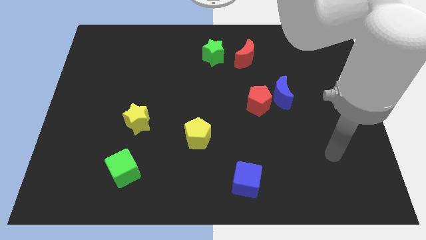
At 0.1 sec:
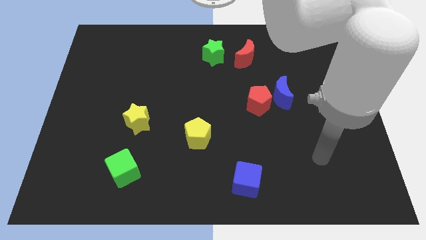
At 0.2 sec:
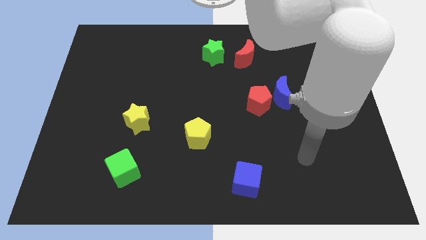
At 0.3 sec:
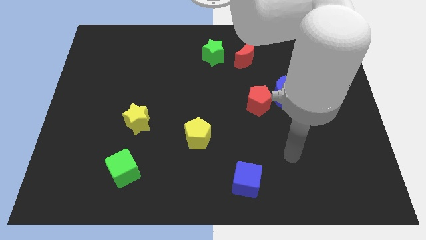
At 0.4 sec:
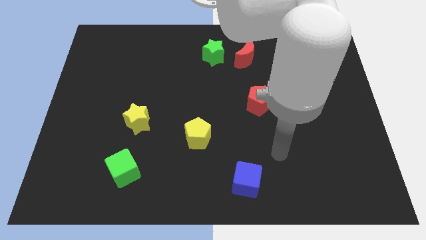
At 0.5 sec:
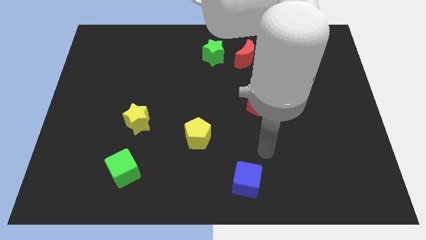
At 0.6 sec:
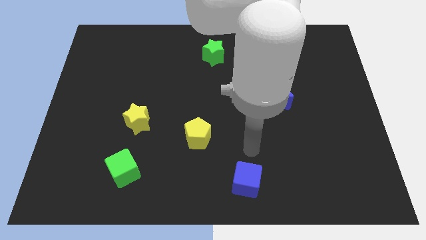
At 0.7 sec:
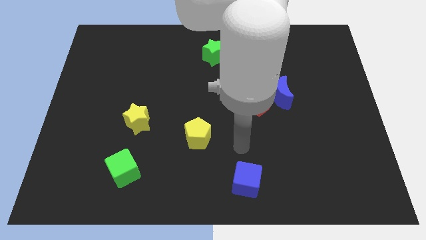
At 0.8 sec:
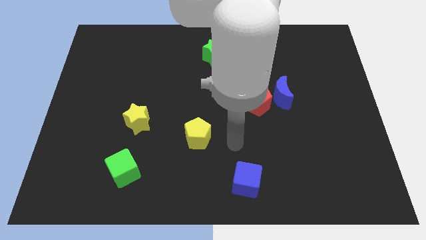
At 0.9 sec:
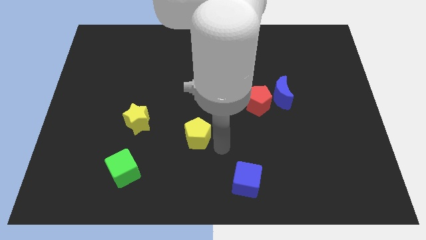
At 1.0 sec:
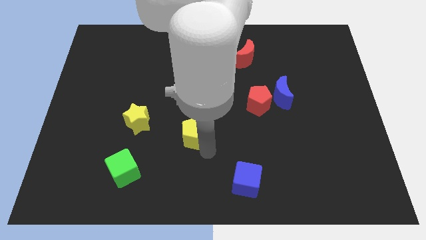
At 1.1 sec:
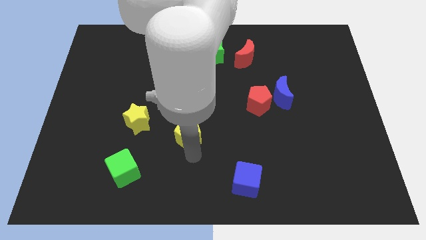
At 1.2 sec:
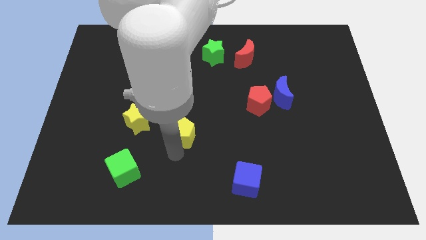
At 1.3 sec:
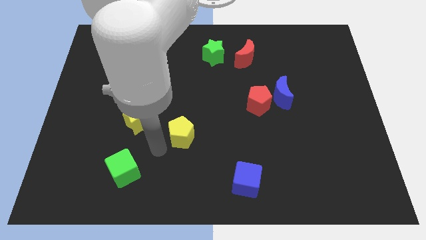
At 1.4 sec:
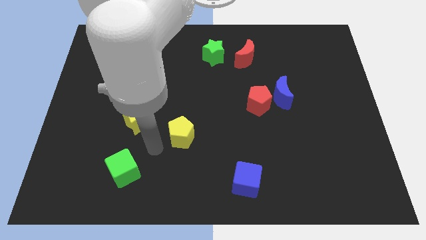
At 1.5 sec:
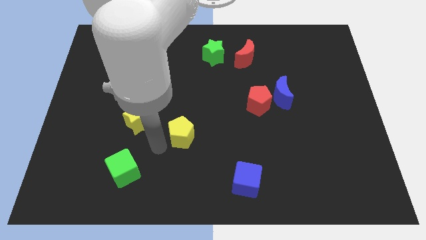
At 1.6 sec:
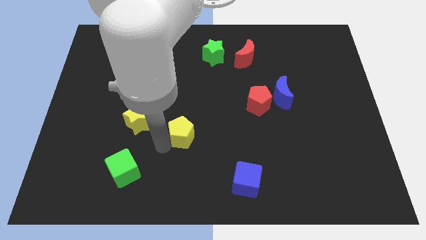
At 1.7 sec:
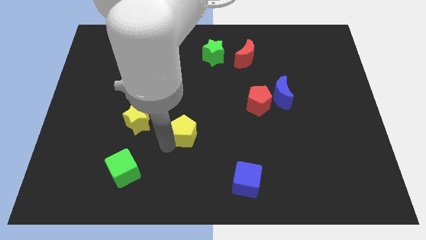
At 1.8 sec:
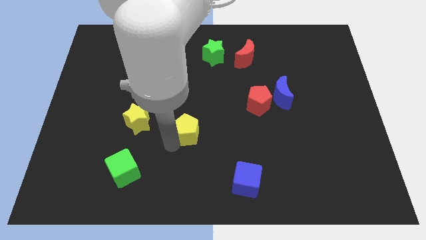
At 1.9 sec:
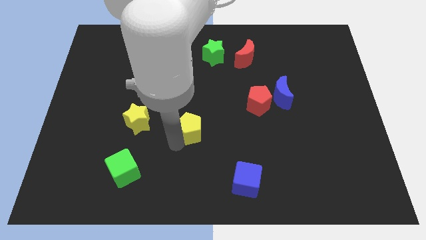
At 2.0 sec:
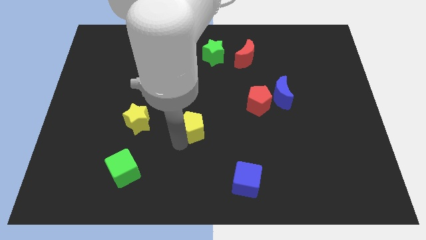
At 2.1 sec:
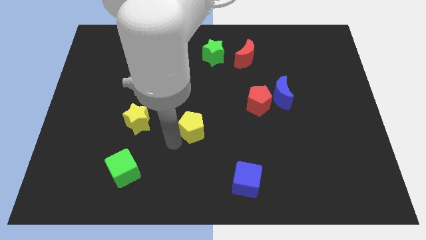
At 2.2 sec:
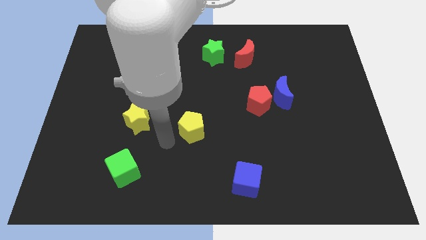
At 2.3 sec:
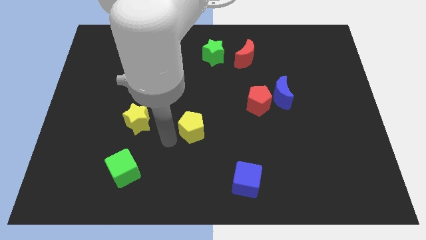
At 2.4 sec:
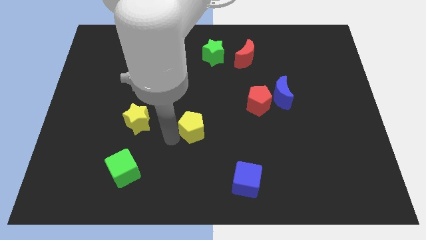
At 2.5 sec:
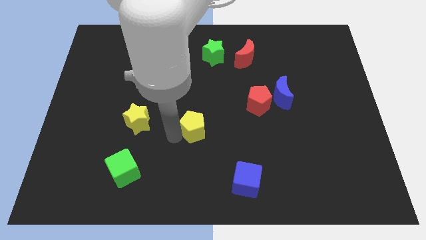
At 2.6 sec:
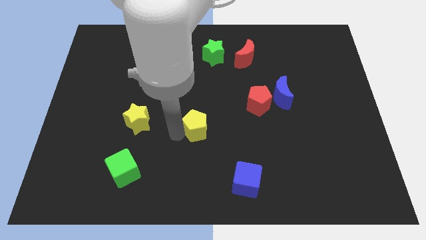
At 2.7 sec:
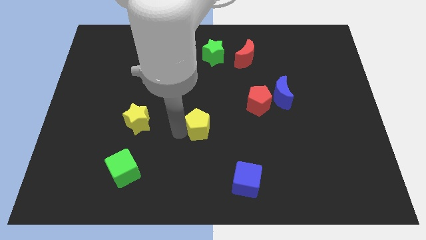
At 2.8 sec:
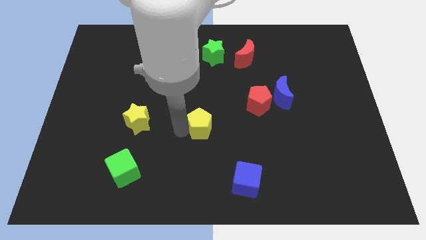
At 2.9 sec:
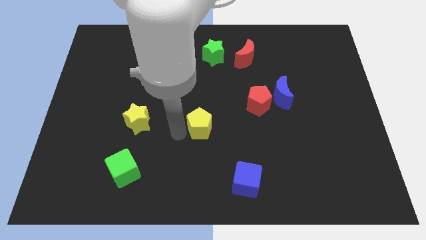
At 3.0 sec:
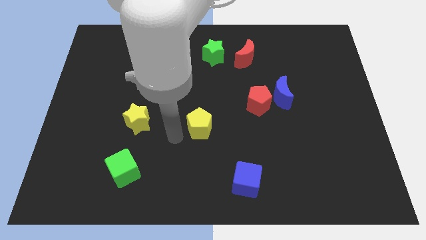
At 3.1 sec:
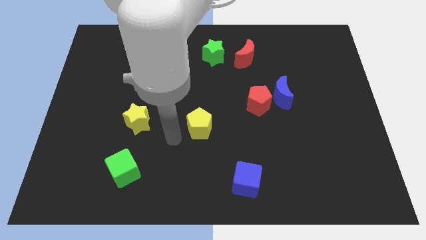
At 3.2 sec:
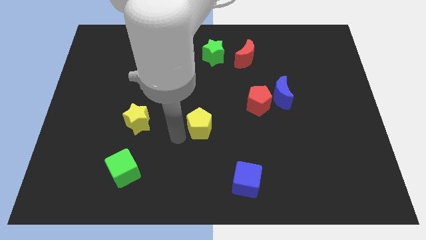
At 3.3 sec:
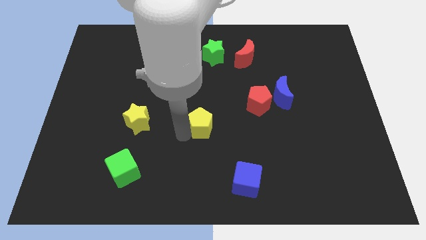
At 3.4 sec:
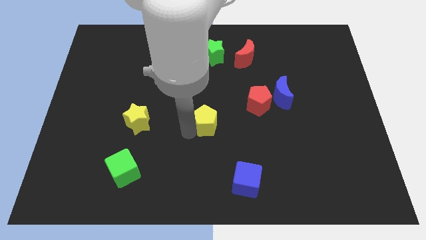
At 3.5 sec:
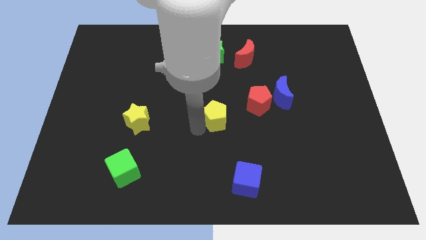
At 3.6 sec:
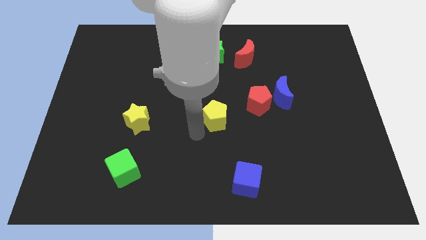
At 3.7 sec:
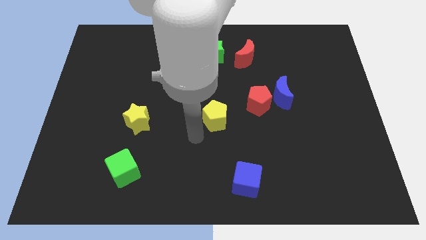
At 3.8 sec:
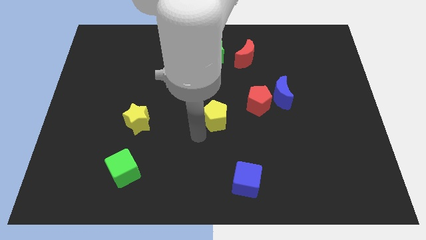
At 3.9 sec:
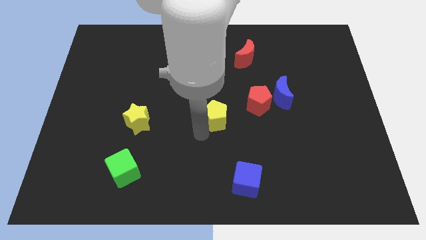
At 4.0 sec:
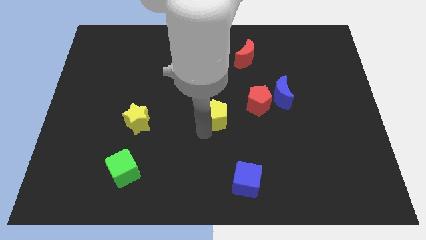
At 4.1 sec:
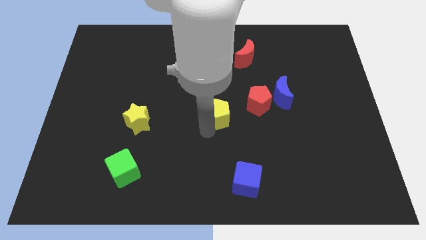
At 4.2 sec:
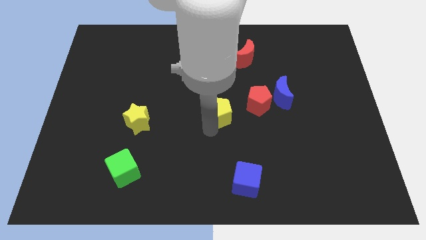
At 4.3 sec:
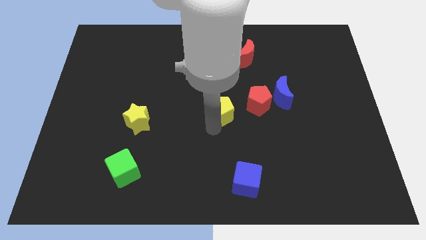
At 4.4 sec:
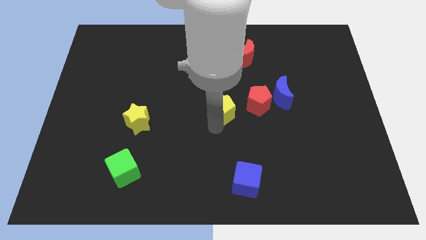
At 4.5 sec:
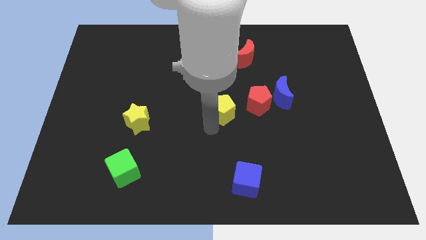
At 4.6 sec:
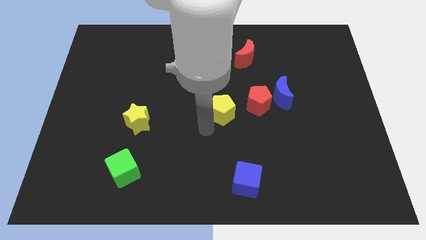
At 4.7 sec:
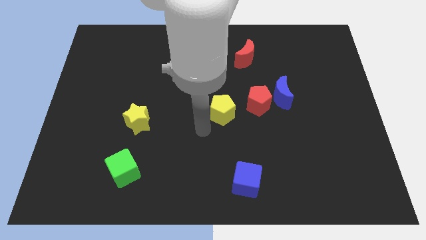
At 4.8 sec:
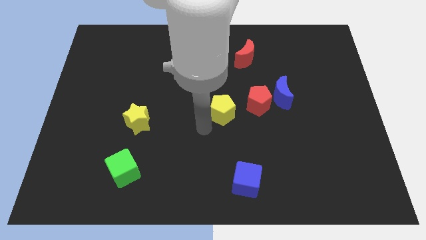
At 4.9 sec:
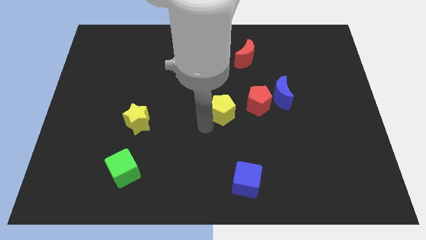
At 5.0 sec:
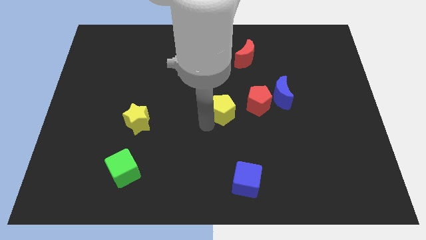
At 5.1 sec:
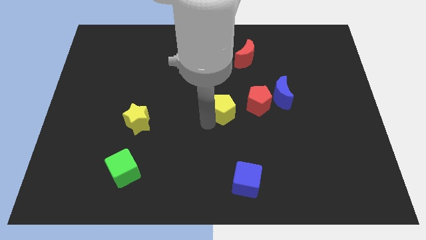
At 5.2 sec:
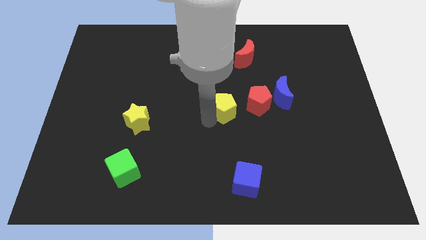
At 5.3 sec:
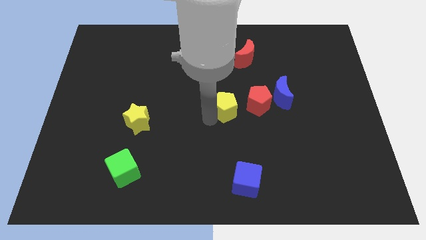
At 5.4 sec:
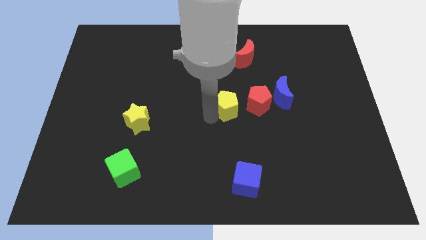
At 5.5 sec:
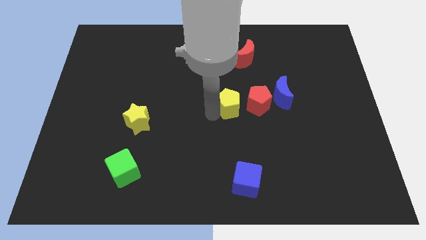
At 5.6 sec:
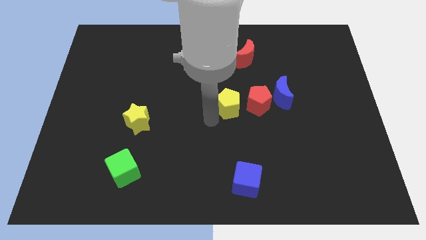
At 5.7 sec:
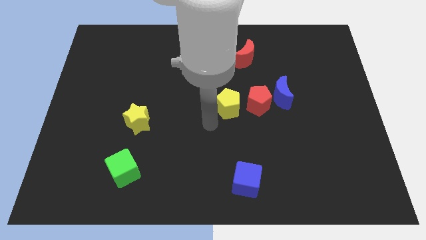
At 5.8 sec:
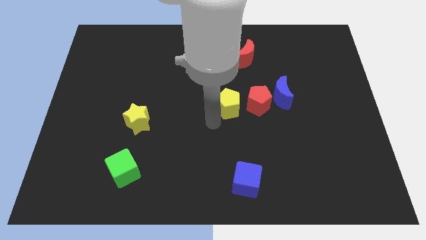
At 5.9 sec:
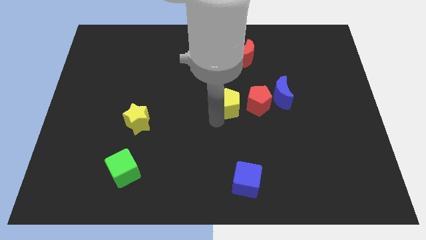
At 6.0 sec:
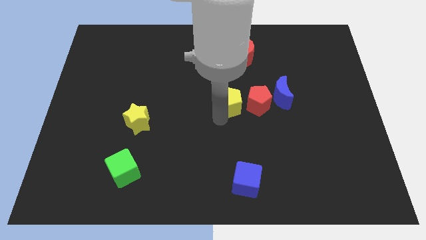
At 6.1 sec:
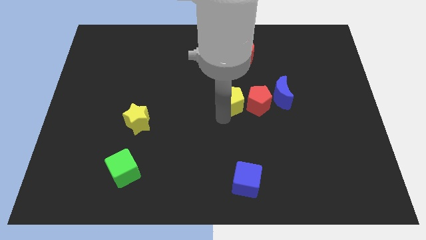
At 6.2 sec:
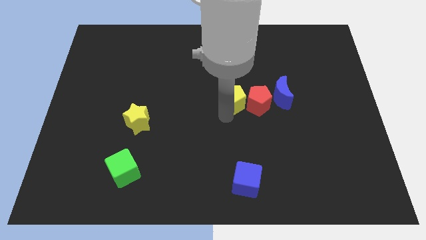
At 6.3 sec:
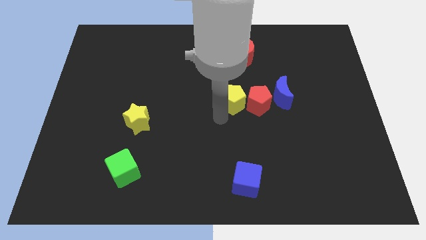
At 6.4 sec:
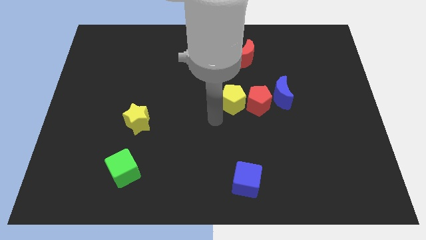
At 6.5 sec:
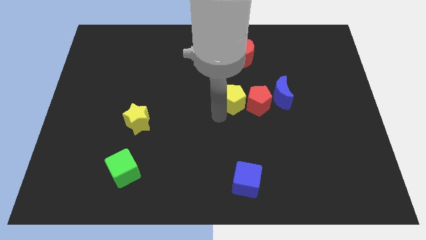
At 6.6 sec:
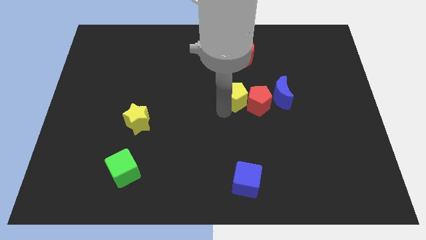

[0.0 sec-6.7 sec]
slide the yellow pentagon to the bottom of the red moon

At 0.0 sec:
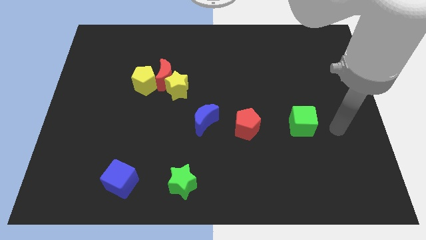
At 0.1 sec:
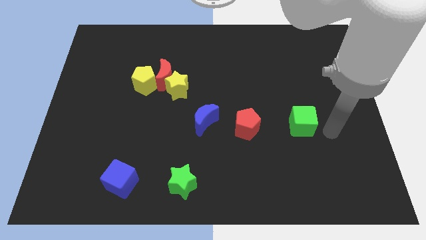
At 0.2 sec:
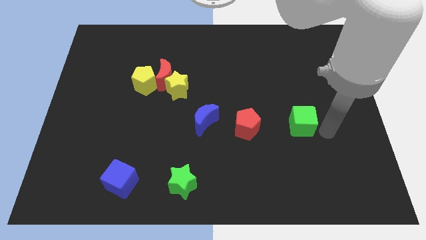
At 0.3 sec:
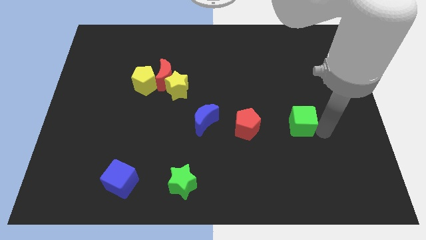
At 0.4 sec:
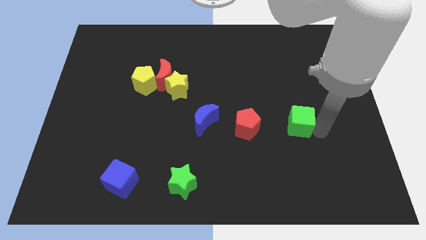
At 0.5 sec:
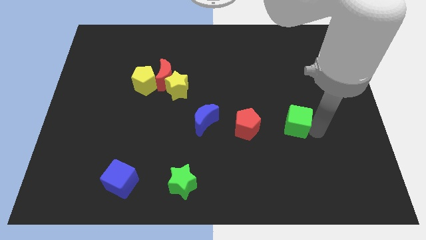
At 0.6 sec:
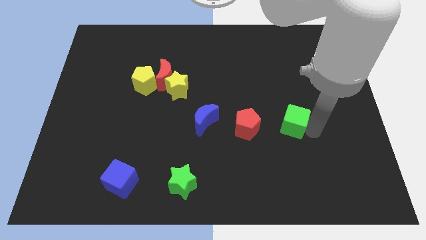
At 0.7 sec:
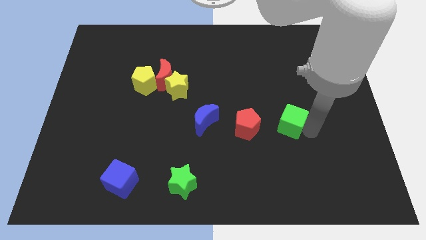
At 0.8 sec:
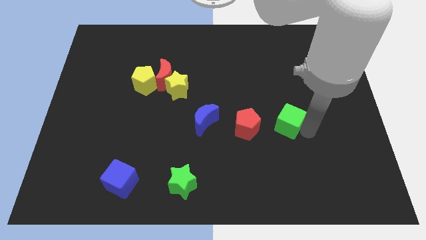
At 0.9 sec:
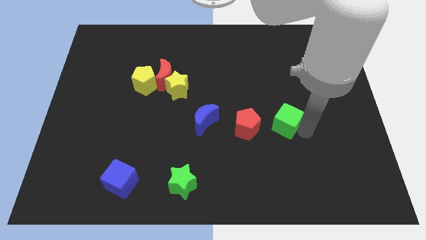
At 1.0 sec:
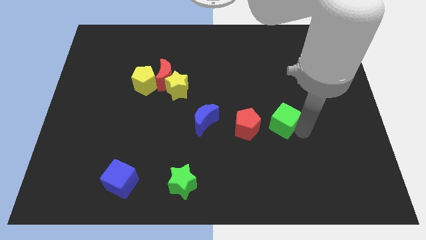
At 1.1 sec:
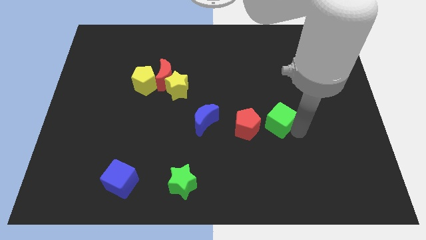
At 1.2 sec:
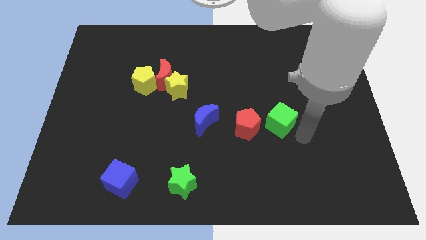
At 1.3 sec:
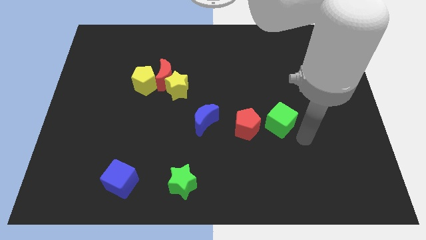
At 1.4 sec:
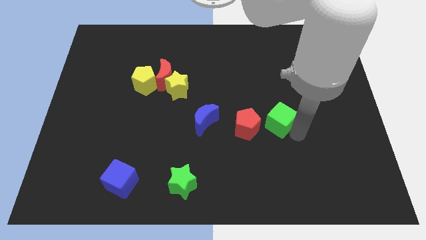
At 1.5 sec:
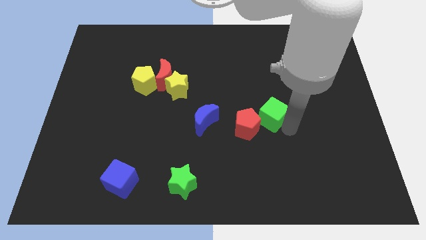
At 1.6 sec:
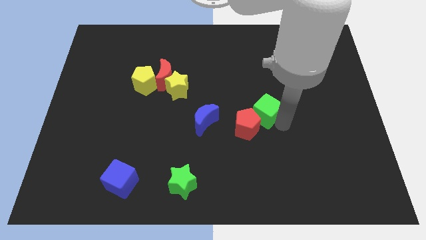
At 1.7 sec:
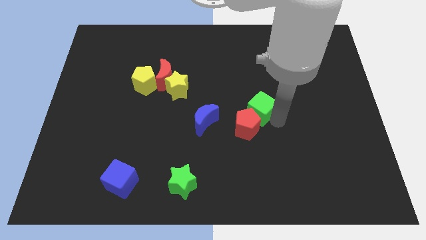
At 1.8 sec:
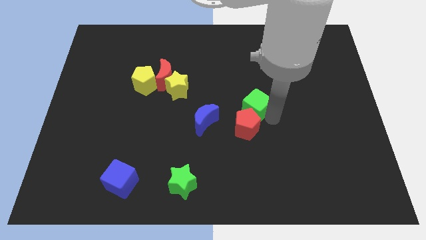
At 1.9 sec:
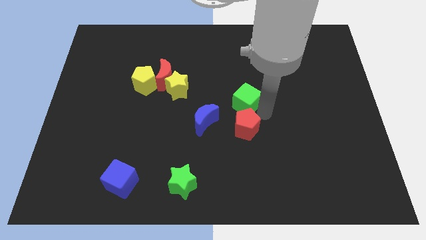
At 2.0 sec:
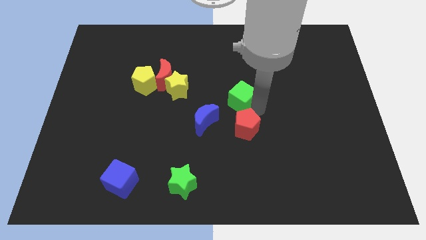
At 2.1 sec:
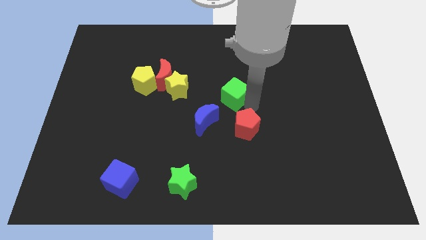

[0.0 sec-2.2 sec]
slide the green cube just right of the yellow star
